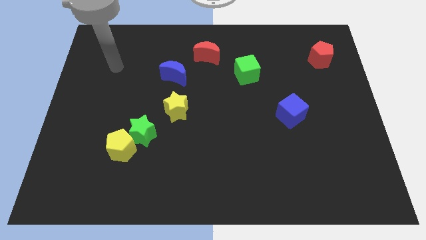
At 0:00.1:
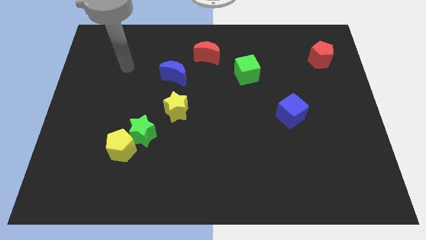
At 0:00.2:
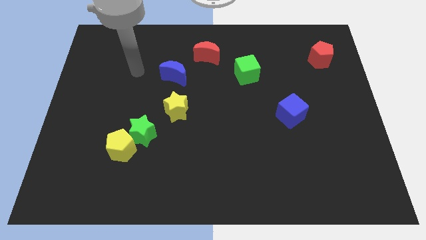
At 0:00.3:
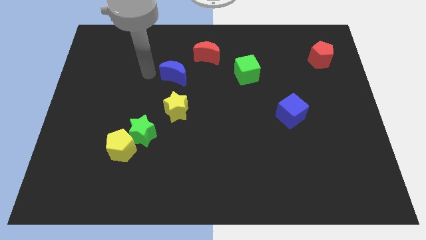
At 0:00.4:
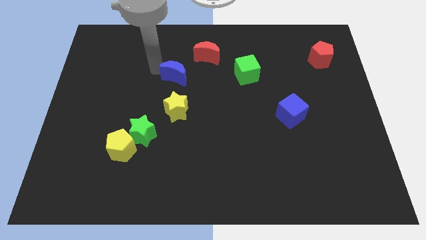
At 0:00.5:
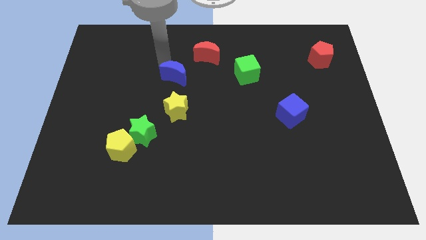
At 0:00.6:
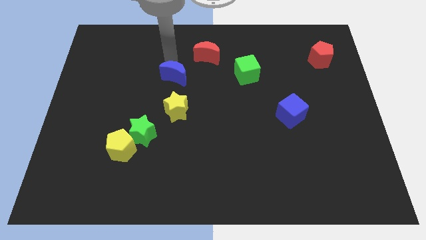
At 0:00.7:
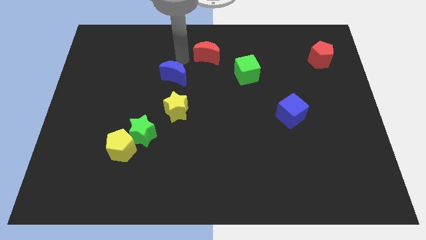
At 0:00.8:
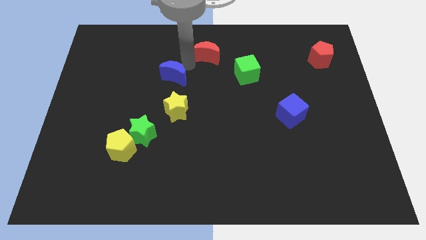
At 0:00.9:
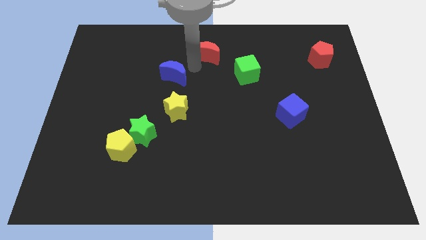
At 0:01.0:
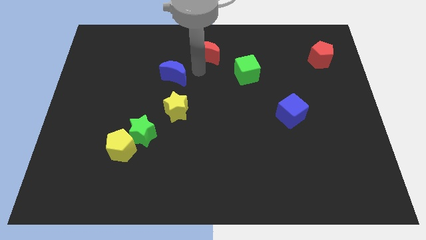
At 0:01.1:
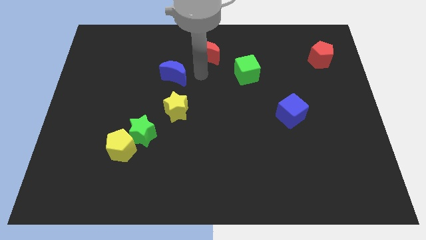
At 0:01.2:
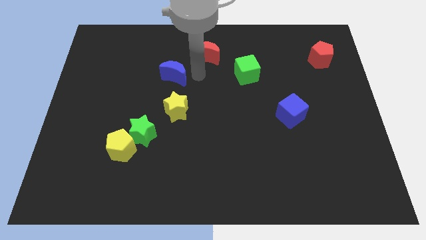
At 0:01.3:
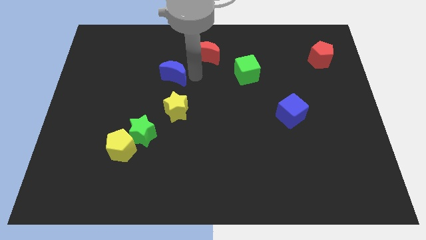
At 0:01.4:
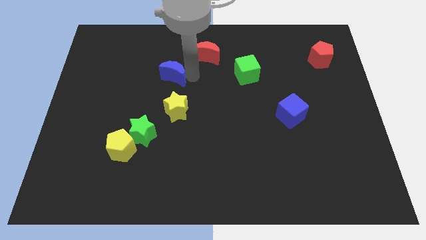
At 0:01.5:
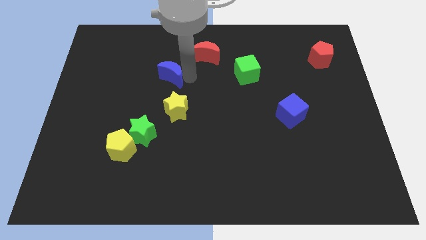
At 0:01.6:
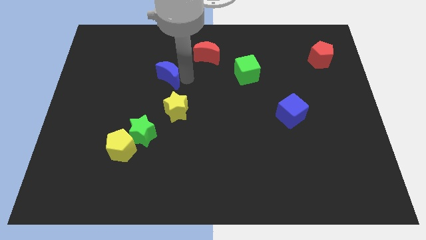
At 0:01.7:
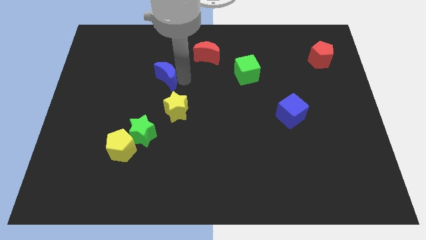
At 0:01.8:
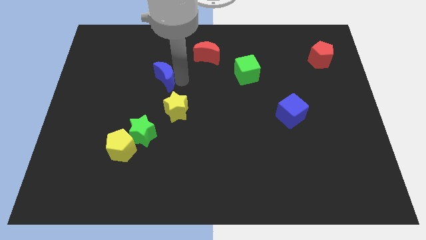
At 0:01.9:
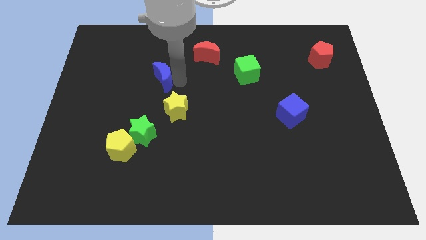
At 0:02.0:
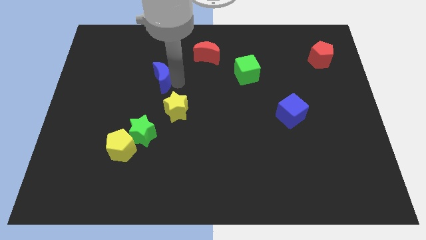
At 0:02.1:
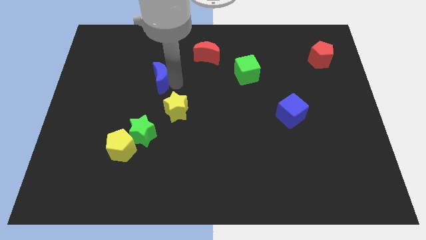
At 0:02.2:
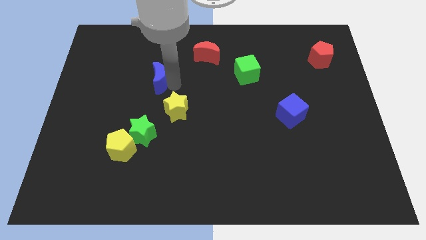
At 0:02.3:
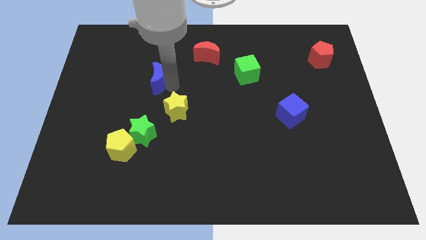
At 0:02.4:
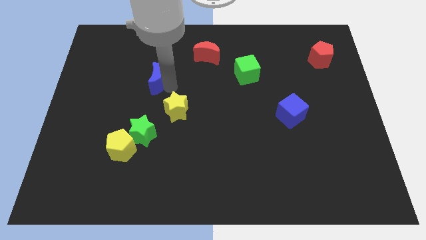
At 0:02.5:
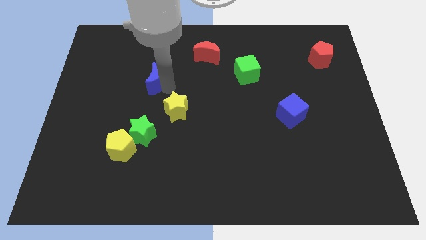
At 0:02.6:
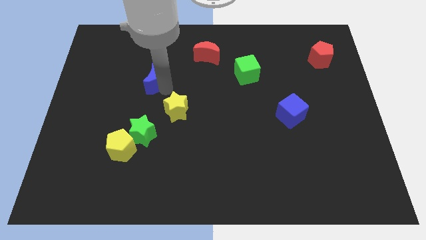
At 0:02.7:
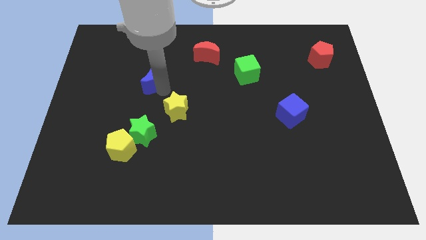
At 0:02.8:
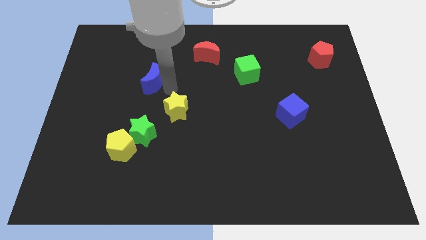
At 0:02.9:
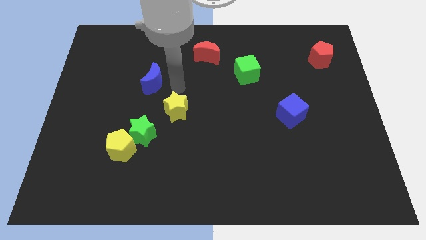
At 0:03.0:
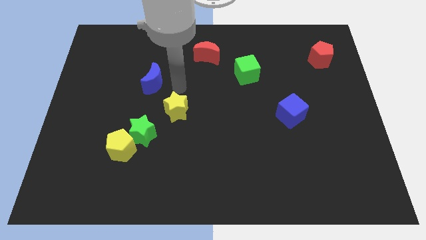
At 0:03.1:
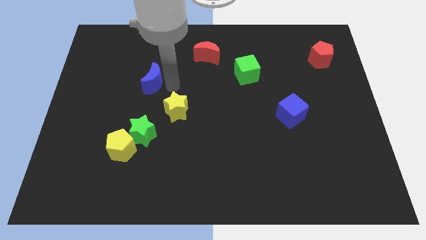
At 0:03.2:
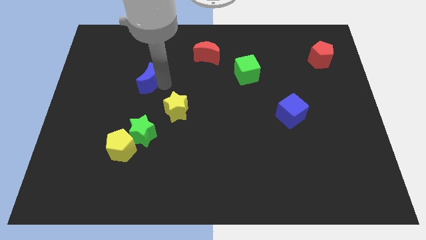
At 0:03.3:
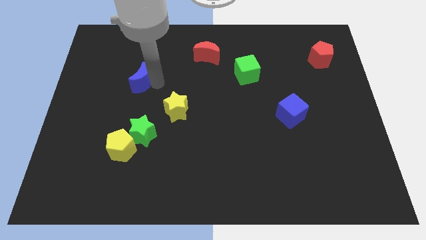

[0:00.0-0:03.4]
slightly move the blue moon to the left

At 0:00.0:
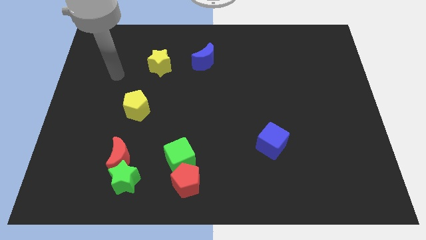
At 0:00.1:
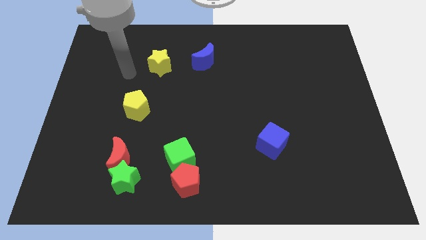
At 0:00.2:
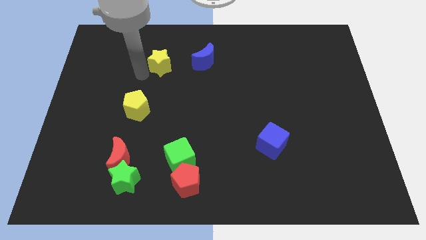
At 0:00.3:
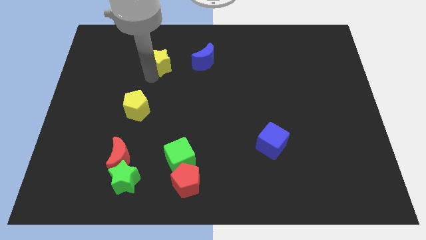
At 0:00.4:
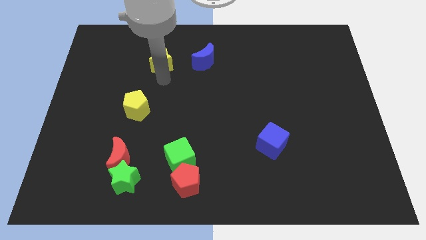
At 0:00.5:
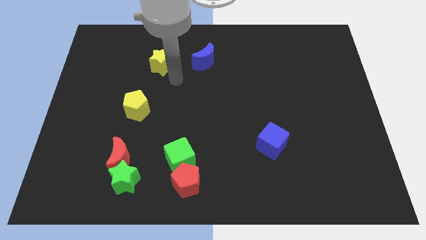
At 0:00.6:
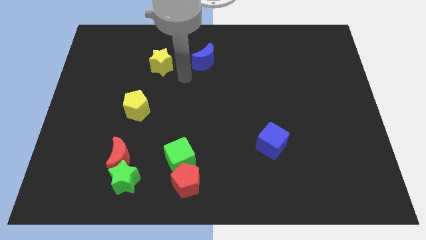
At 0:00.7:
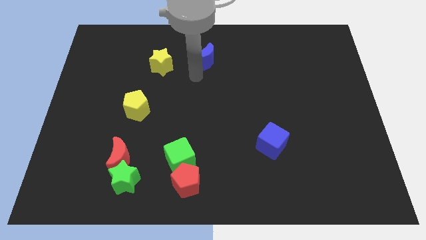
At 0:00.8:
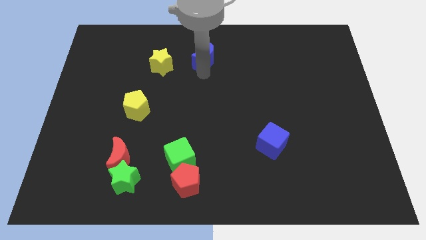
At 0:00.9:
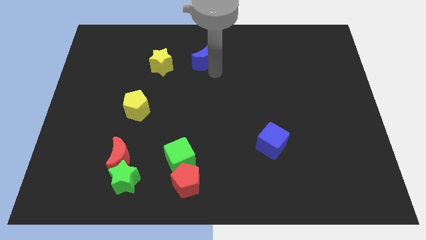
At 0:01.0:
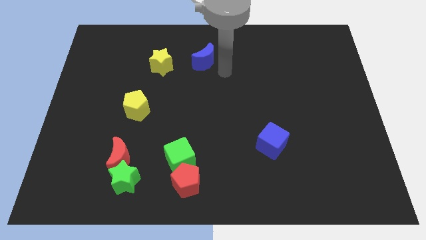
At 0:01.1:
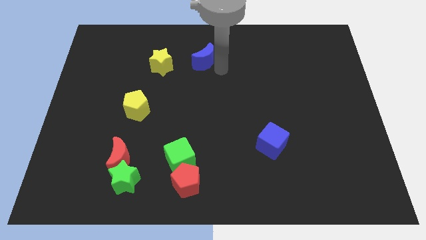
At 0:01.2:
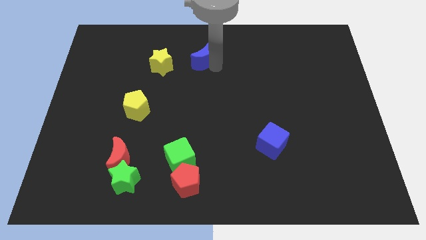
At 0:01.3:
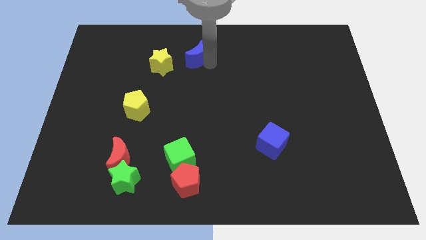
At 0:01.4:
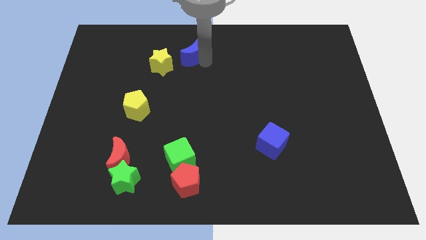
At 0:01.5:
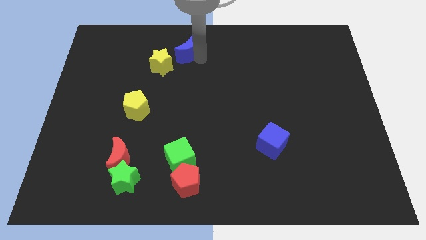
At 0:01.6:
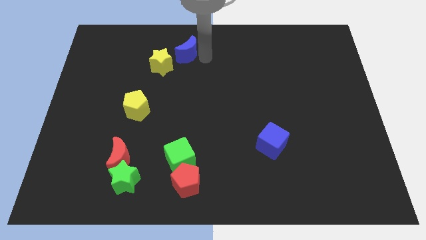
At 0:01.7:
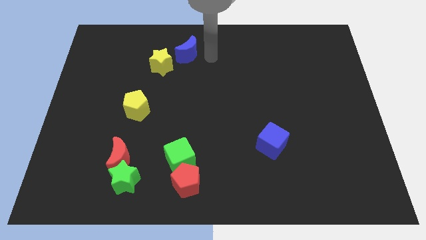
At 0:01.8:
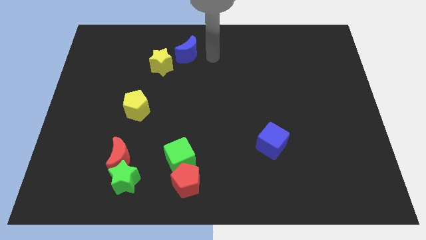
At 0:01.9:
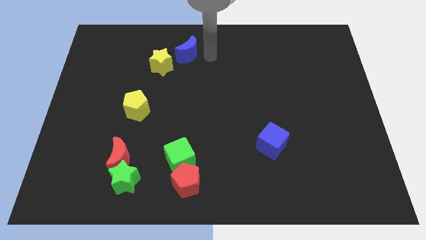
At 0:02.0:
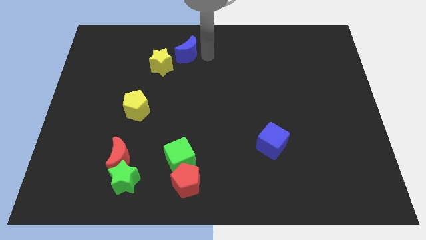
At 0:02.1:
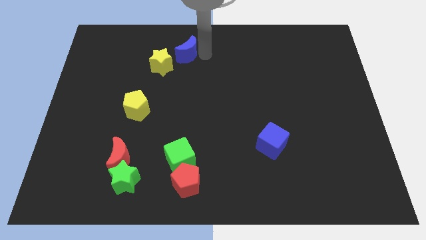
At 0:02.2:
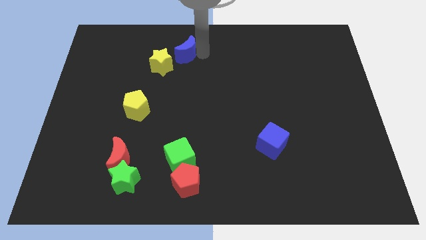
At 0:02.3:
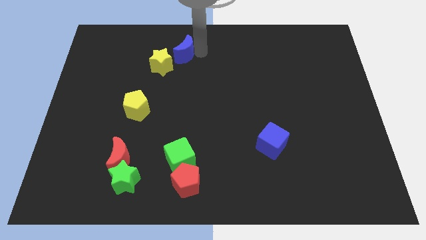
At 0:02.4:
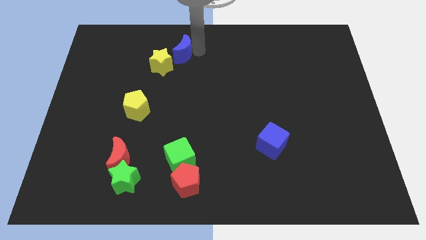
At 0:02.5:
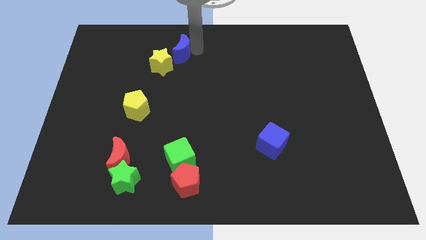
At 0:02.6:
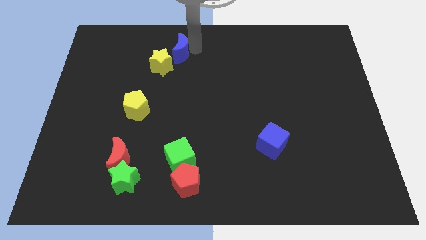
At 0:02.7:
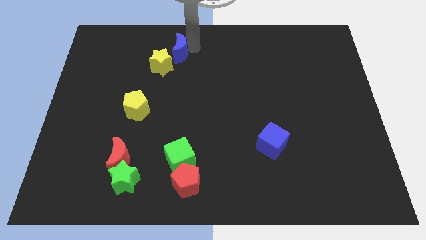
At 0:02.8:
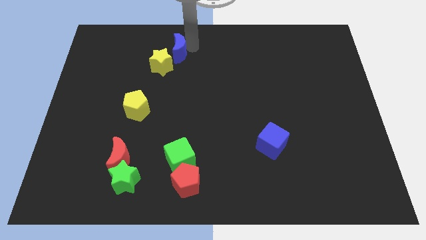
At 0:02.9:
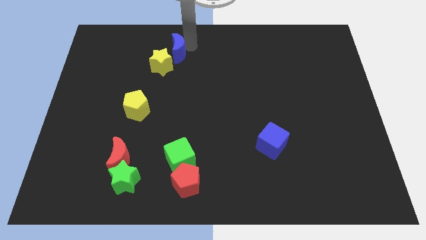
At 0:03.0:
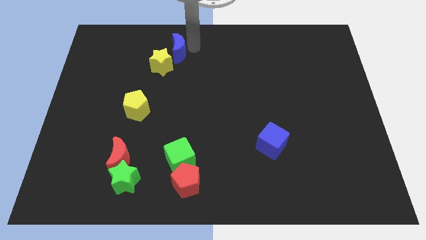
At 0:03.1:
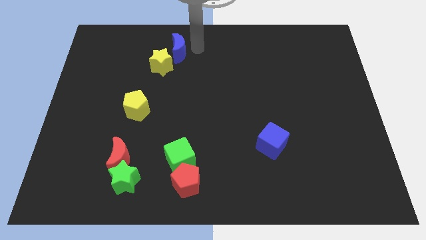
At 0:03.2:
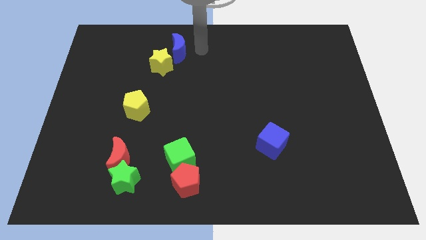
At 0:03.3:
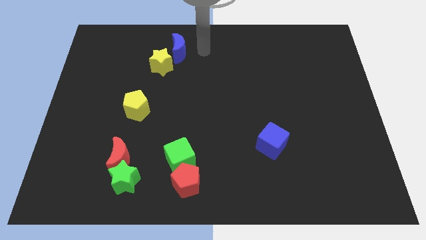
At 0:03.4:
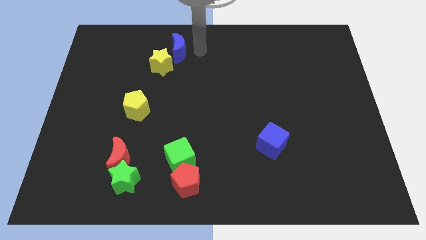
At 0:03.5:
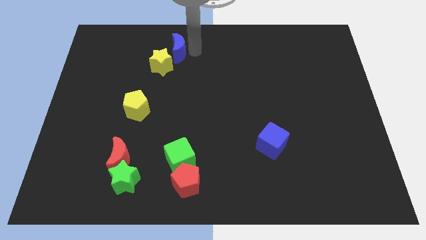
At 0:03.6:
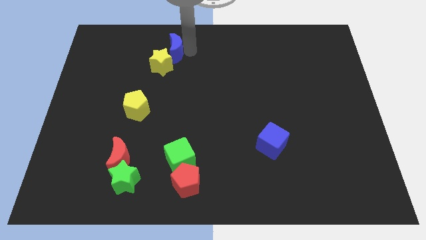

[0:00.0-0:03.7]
move the blue moon slightly to the left

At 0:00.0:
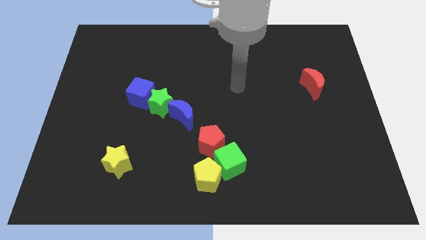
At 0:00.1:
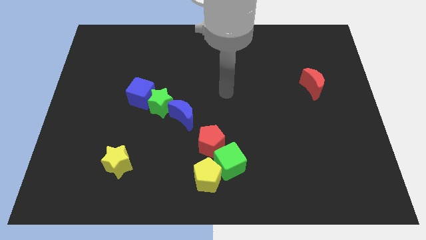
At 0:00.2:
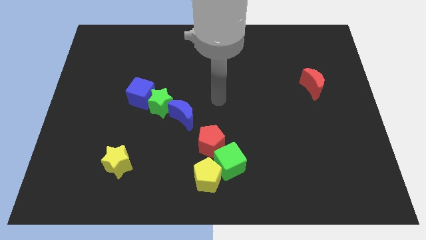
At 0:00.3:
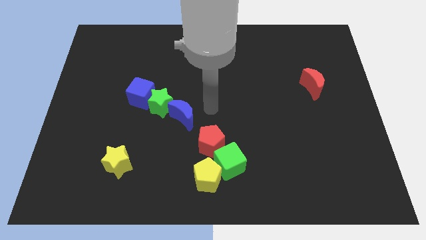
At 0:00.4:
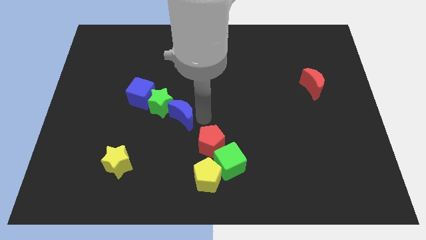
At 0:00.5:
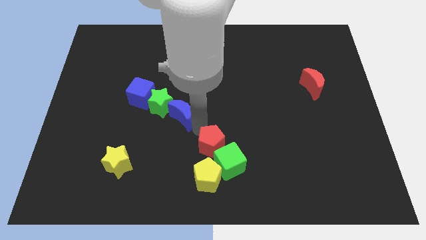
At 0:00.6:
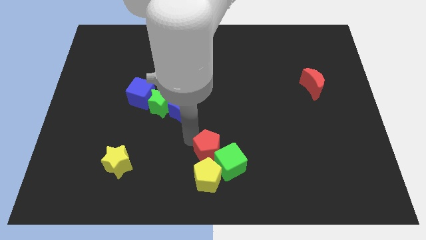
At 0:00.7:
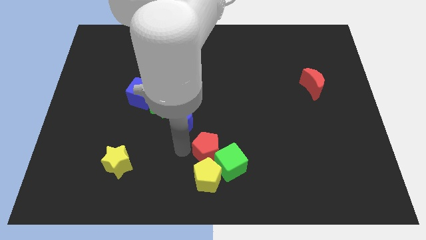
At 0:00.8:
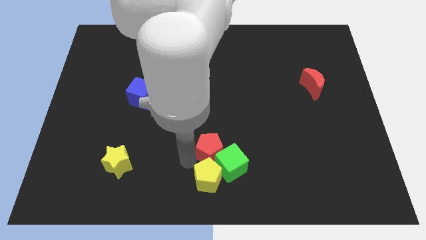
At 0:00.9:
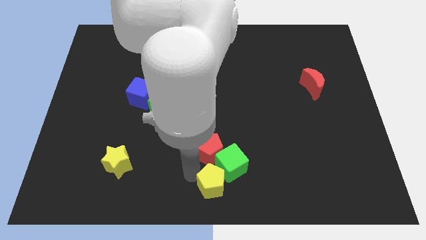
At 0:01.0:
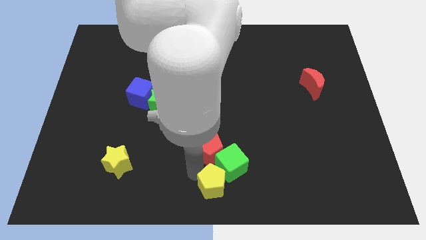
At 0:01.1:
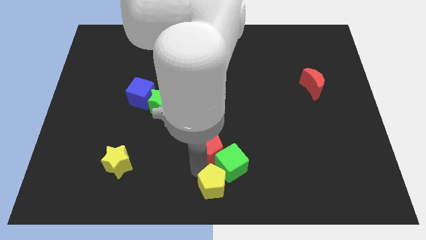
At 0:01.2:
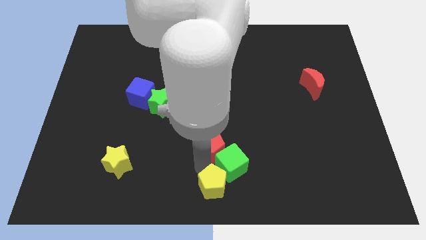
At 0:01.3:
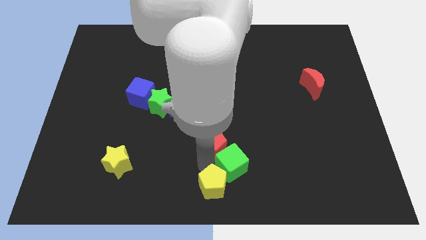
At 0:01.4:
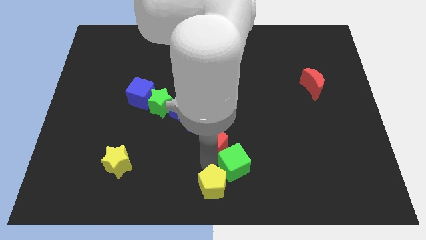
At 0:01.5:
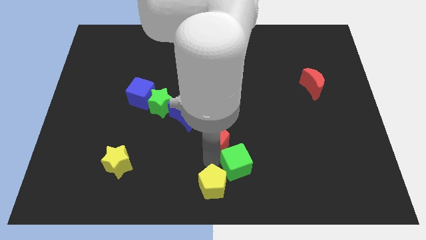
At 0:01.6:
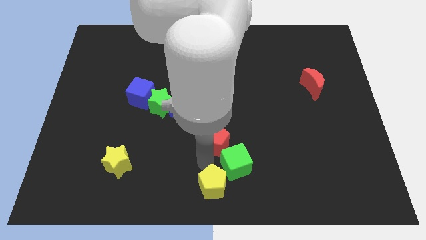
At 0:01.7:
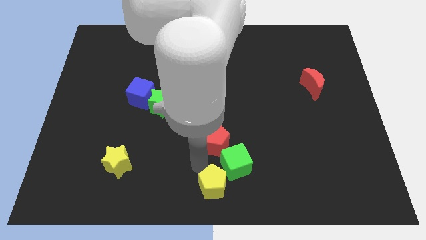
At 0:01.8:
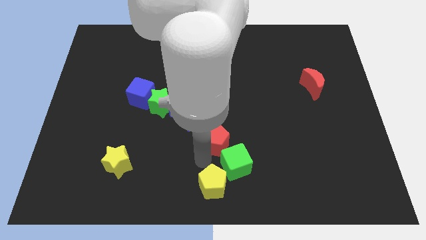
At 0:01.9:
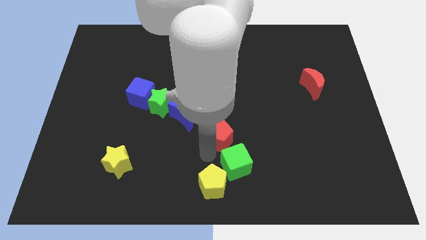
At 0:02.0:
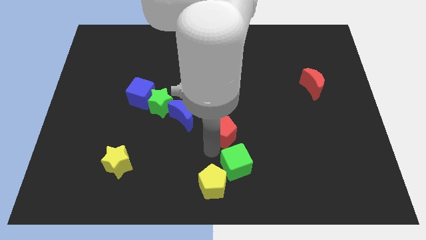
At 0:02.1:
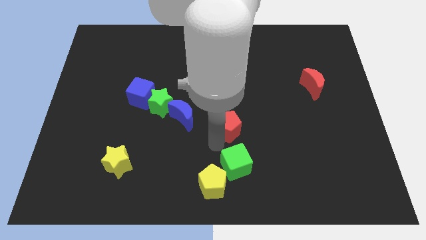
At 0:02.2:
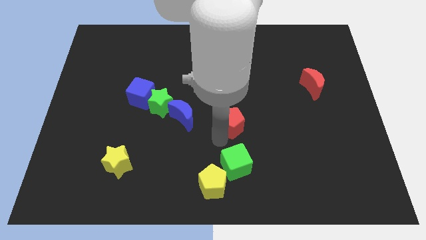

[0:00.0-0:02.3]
push the red pentagon up and right a little
